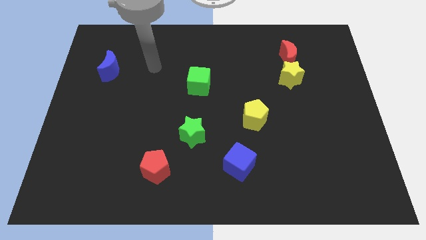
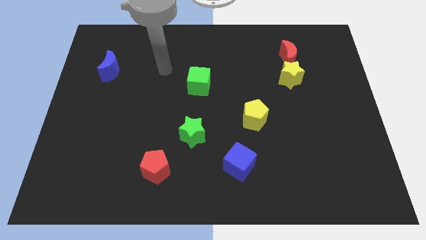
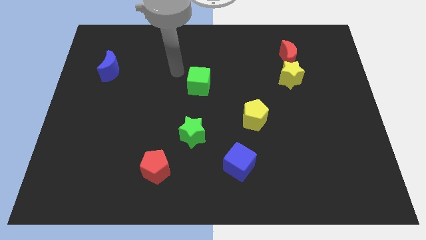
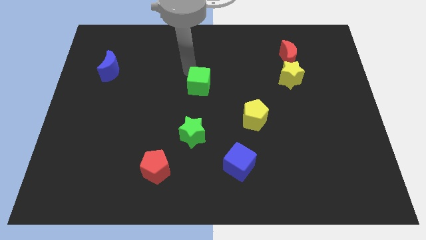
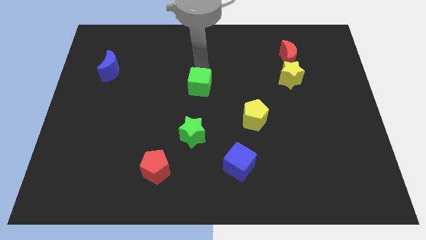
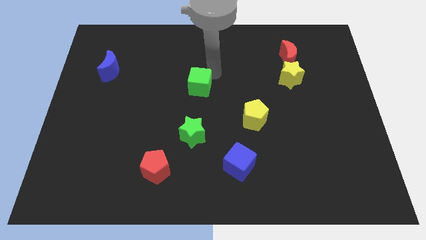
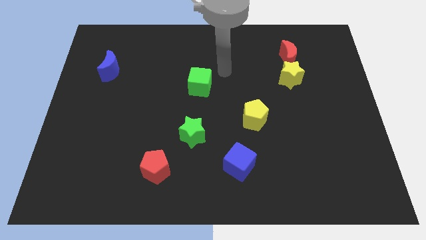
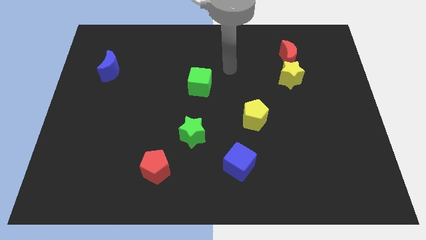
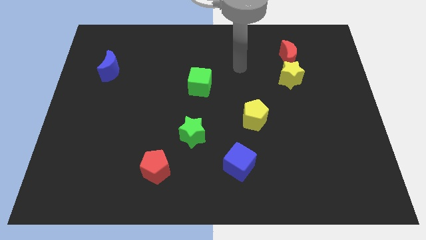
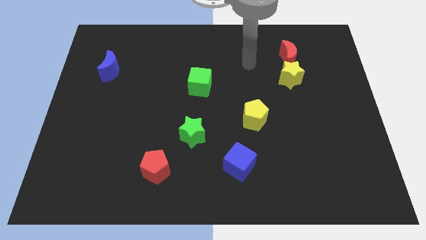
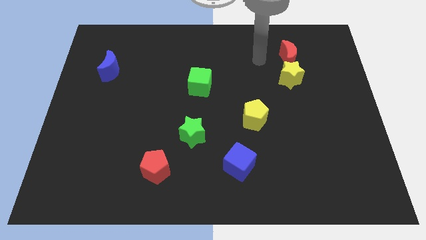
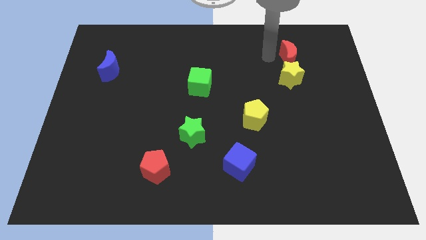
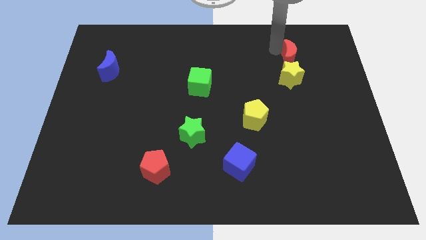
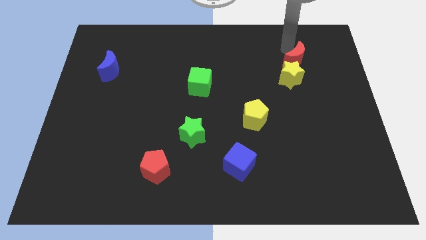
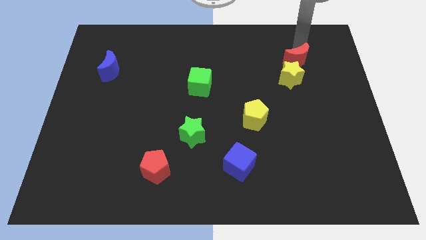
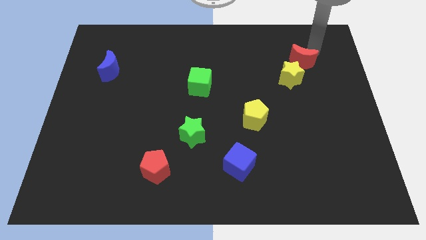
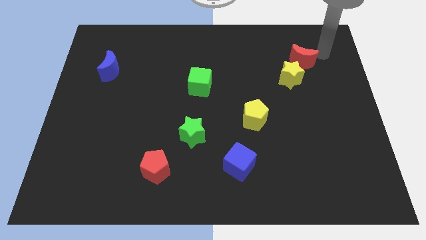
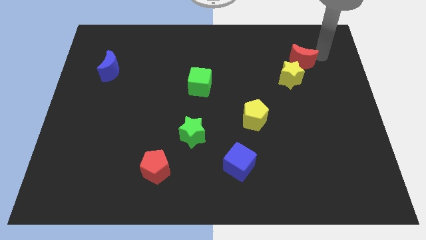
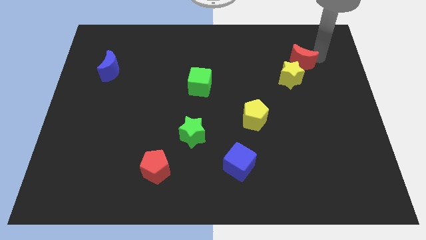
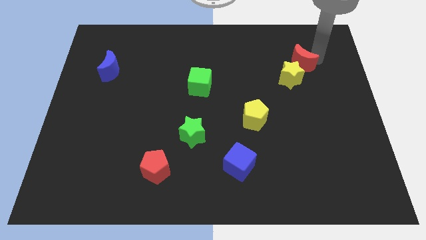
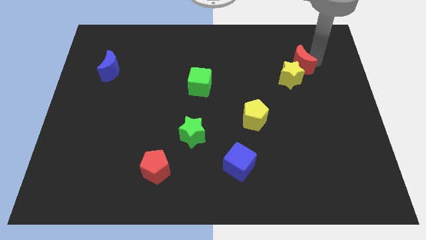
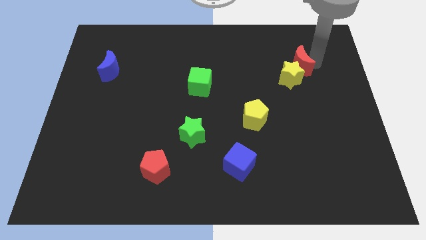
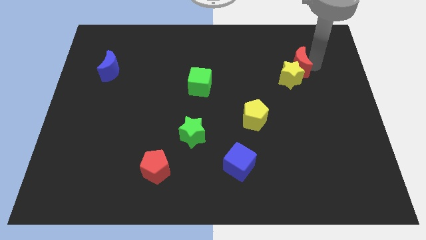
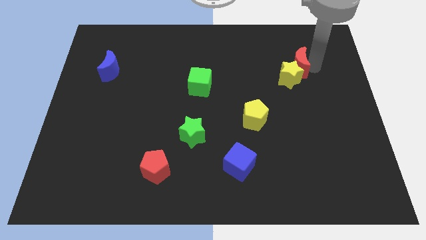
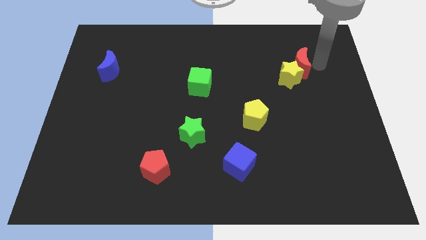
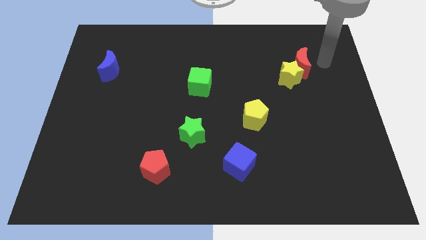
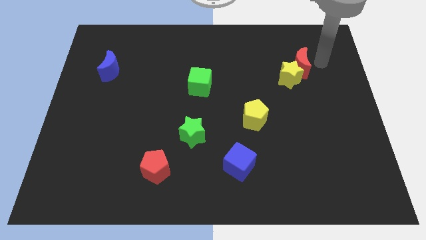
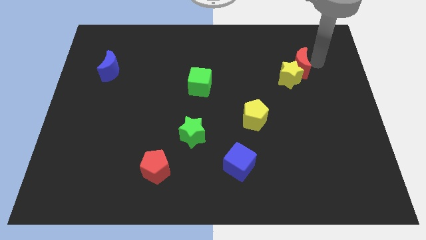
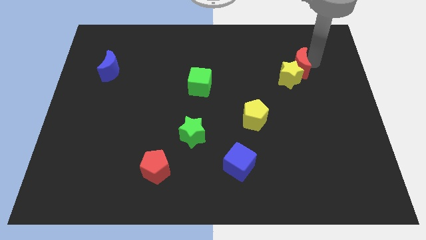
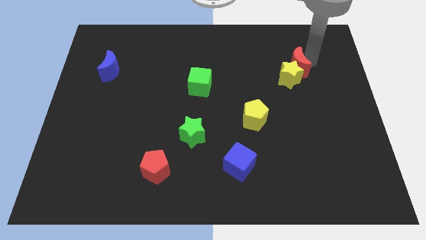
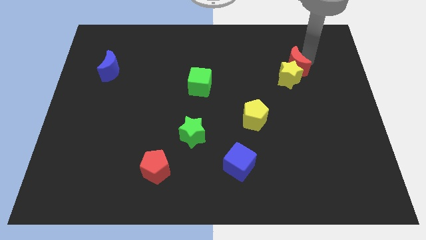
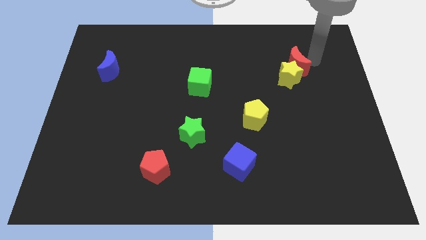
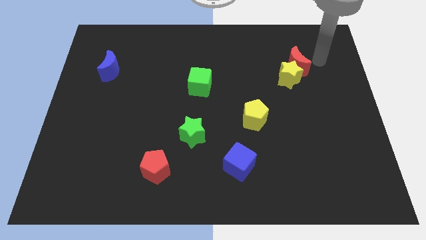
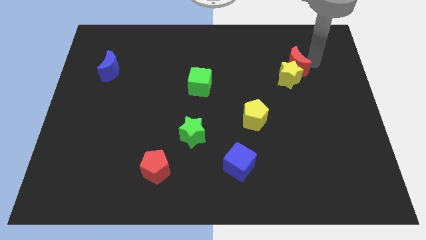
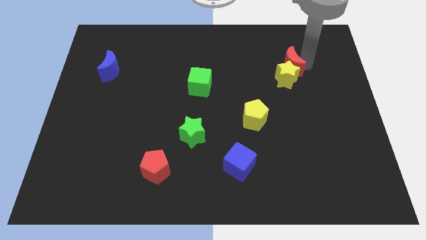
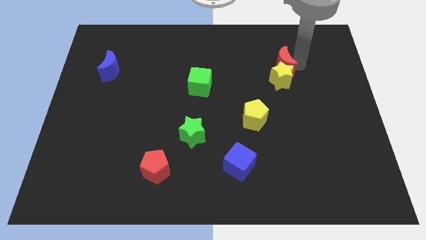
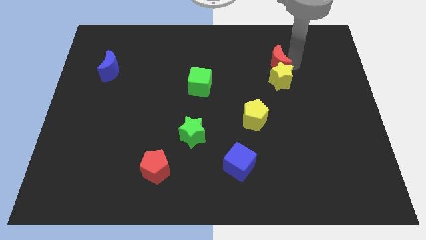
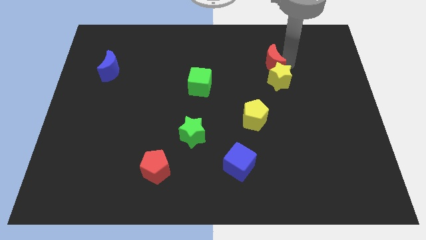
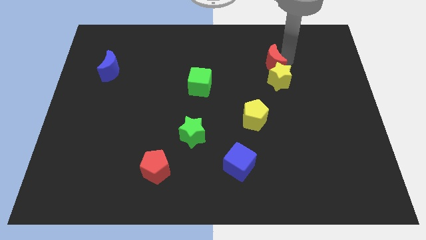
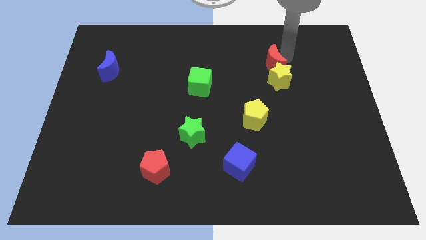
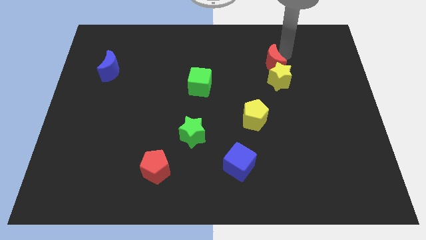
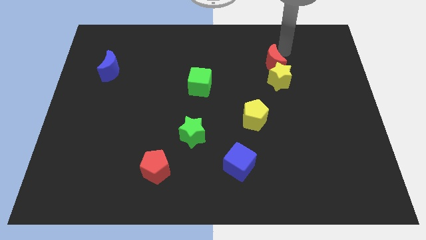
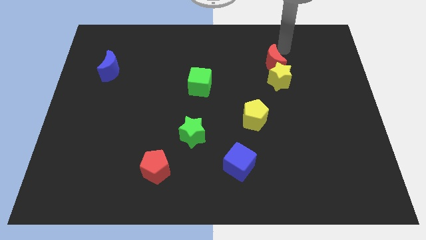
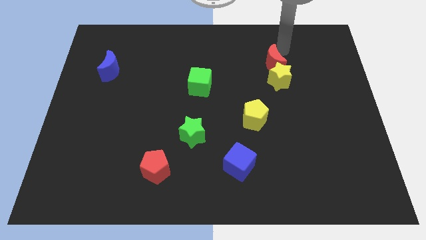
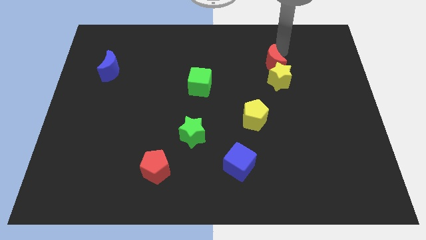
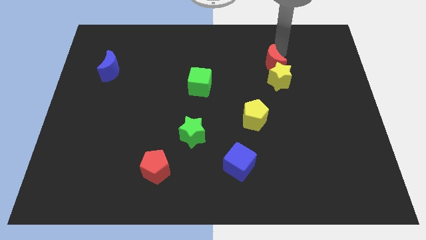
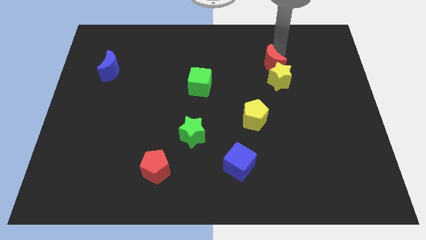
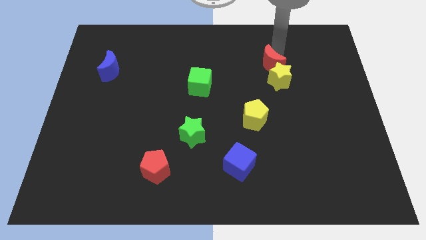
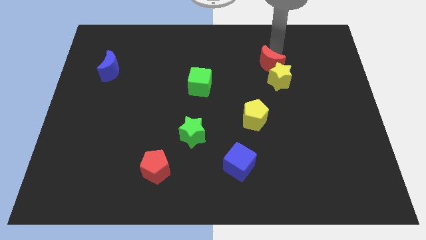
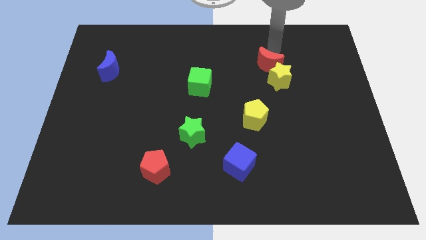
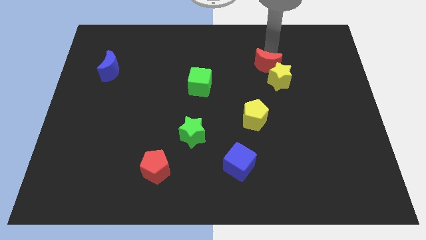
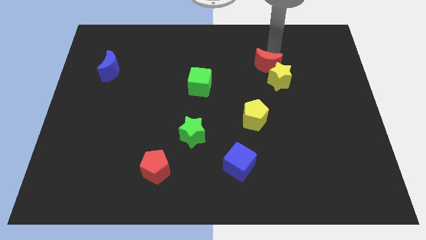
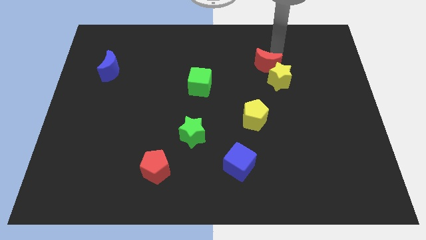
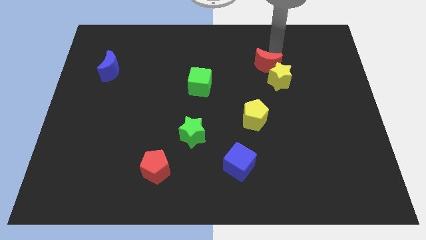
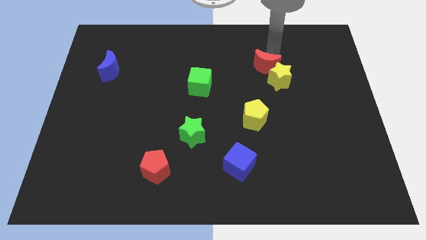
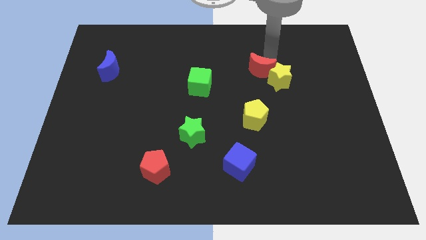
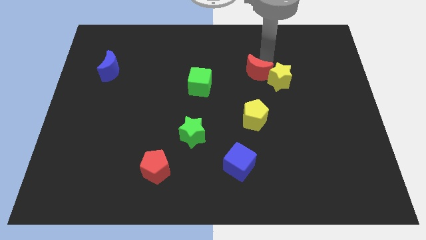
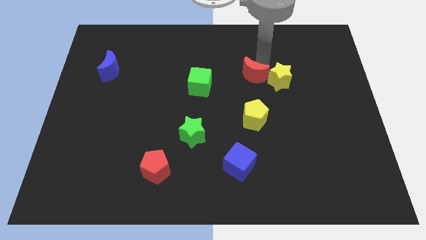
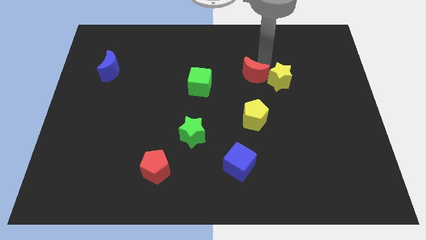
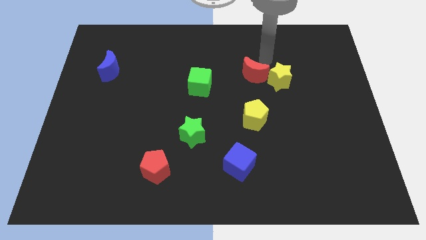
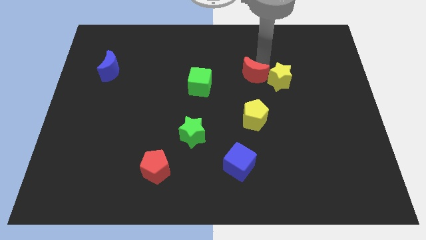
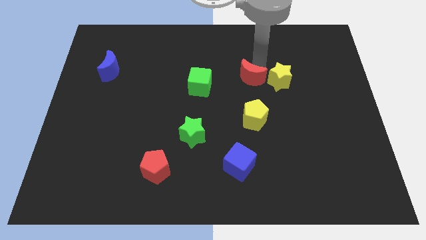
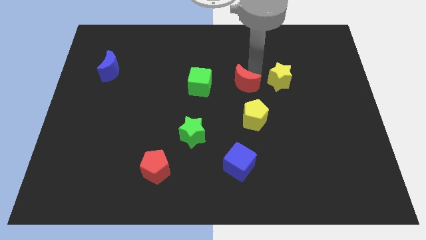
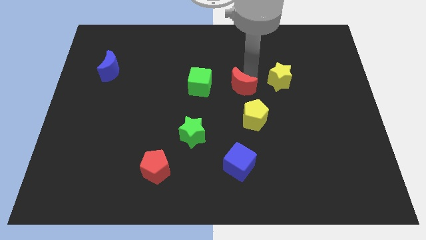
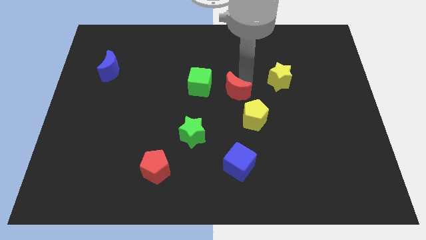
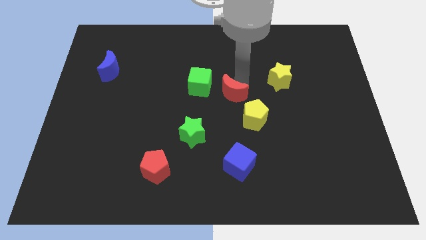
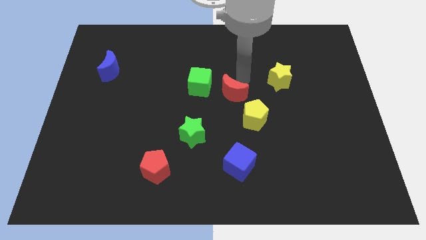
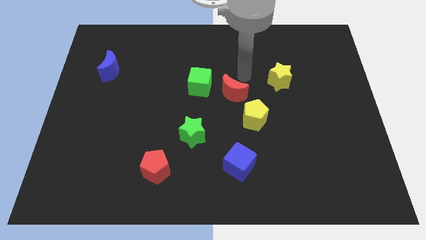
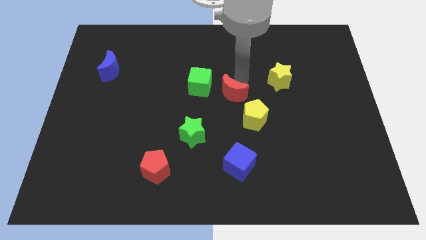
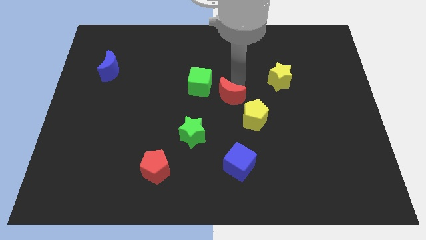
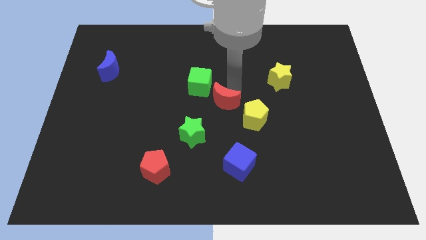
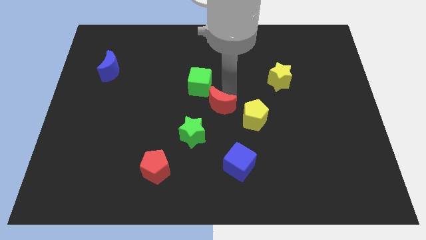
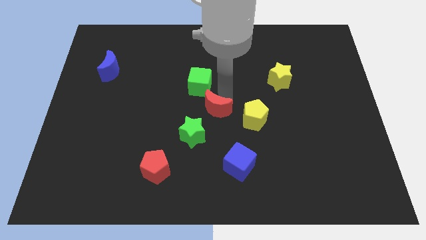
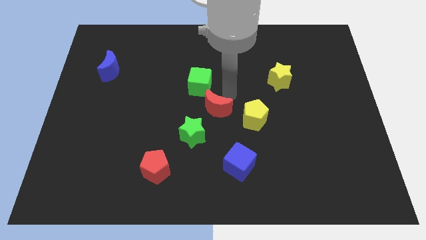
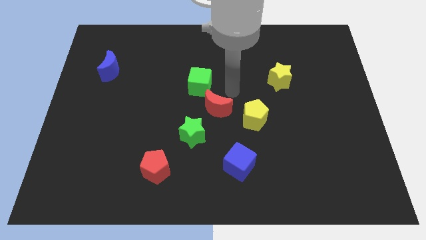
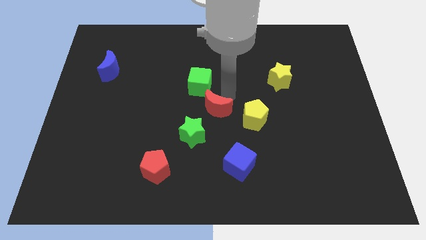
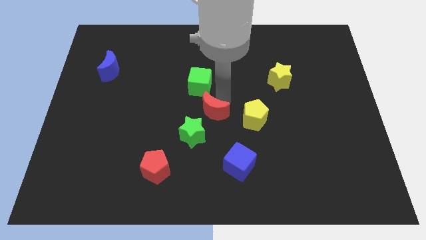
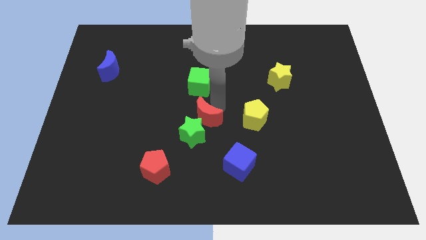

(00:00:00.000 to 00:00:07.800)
move the red moon next to the green star
